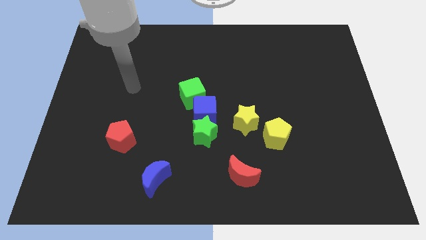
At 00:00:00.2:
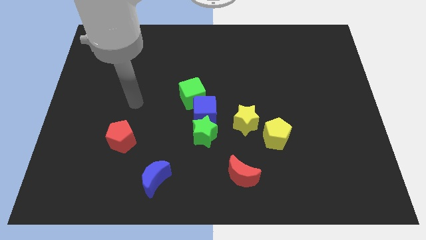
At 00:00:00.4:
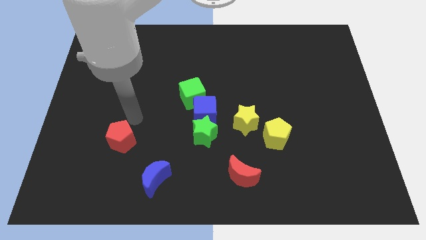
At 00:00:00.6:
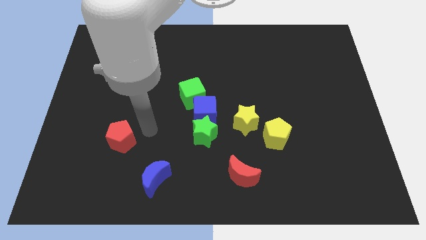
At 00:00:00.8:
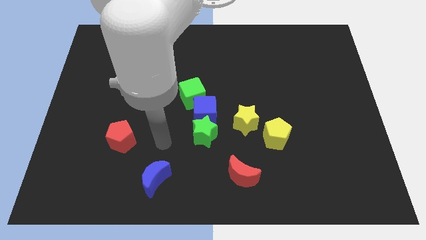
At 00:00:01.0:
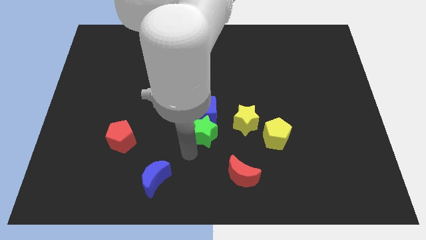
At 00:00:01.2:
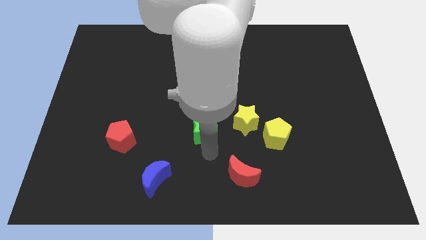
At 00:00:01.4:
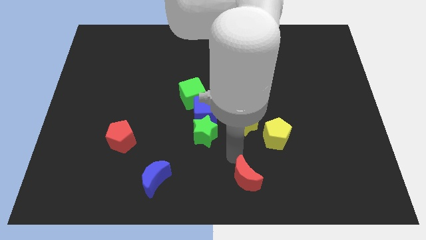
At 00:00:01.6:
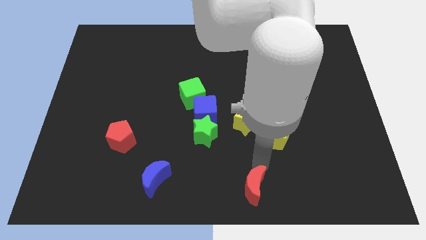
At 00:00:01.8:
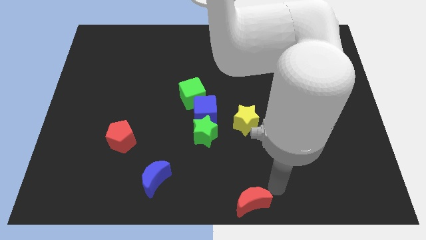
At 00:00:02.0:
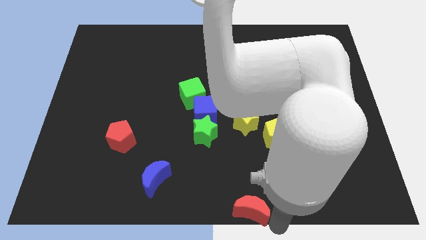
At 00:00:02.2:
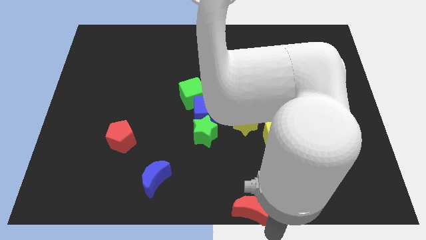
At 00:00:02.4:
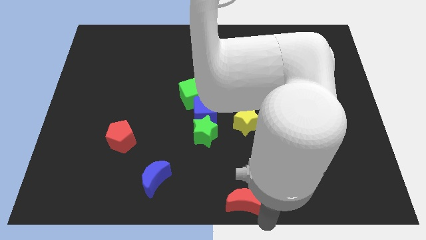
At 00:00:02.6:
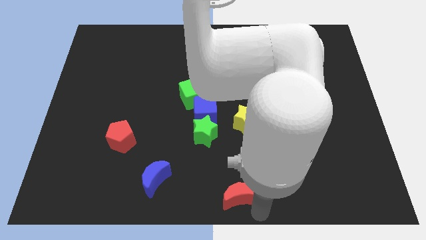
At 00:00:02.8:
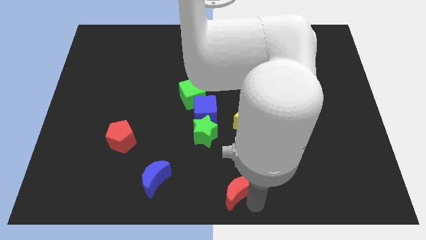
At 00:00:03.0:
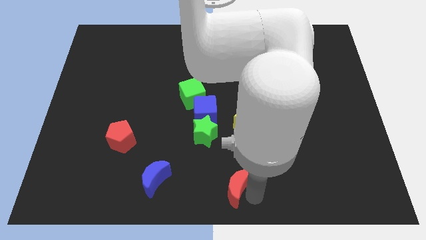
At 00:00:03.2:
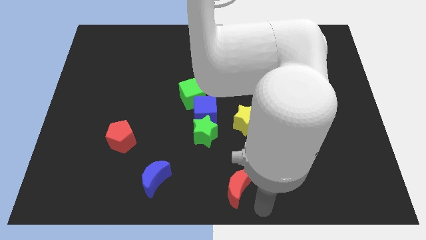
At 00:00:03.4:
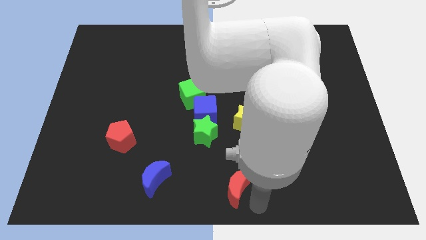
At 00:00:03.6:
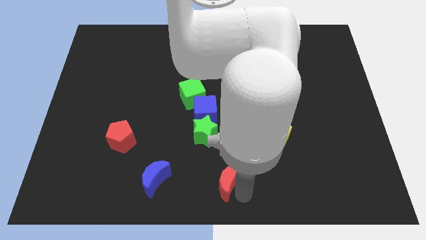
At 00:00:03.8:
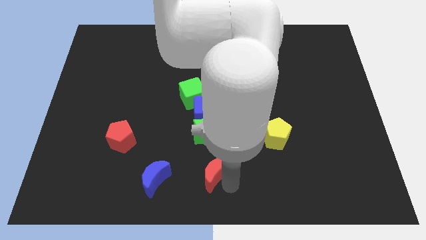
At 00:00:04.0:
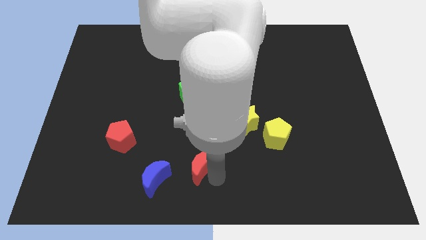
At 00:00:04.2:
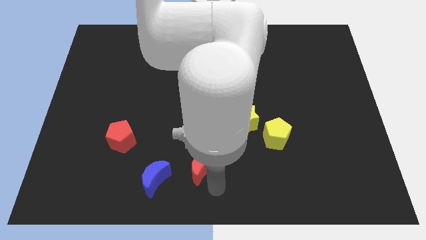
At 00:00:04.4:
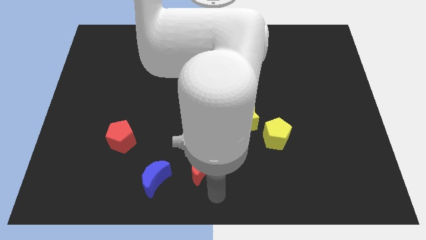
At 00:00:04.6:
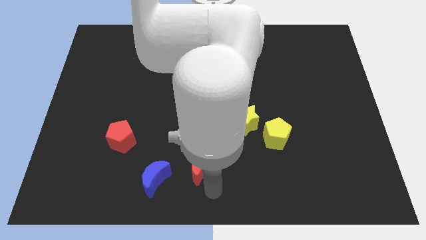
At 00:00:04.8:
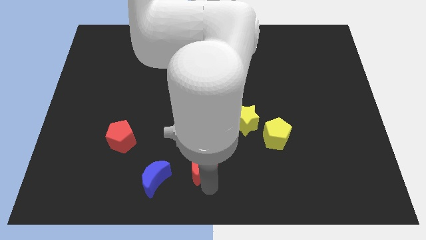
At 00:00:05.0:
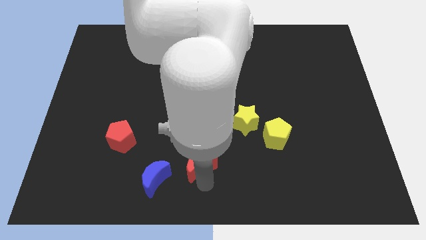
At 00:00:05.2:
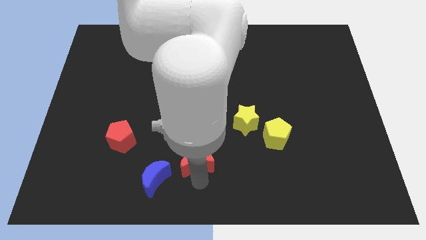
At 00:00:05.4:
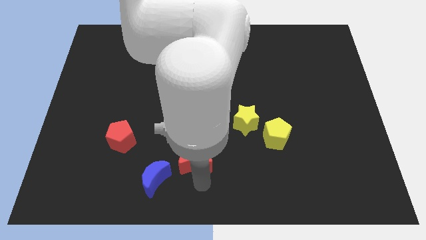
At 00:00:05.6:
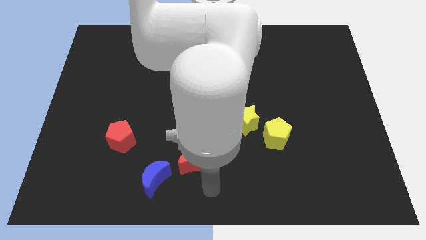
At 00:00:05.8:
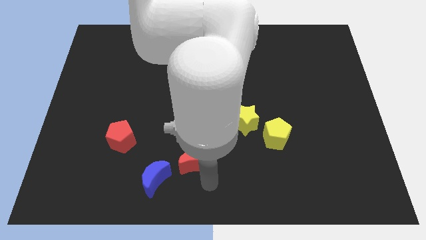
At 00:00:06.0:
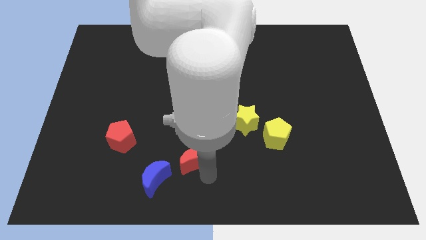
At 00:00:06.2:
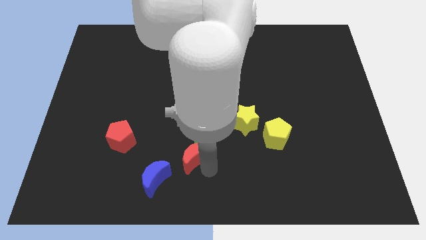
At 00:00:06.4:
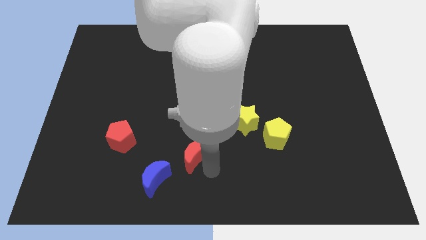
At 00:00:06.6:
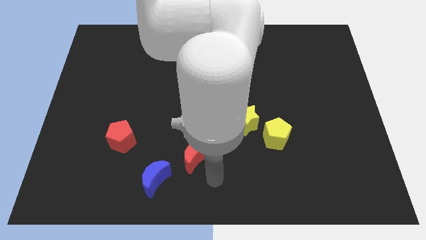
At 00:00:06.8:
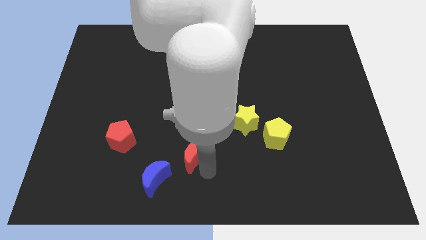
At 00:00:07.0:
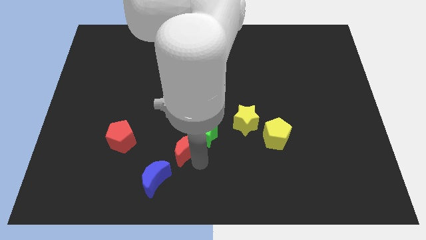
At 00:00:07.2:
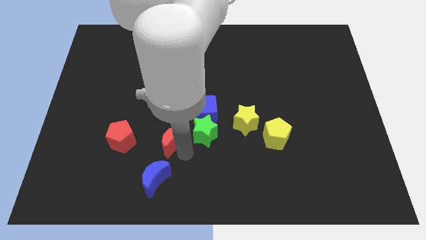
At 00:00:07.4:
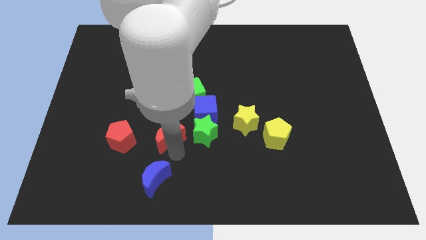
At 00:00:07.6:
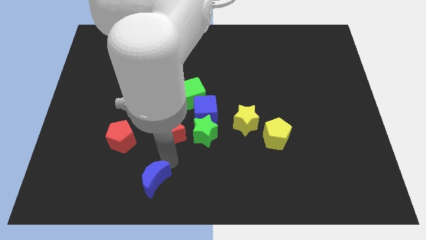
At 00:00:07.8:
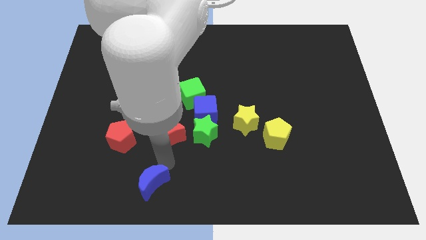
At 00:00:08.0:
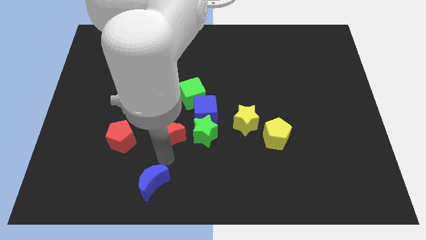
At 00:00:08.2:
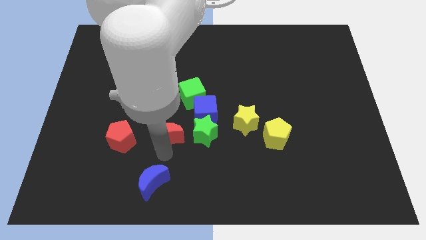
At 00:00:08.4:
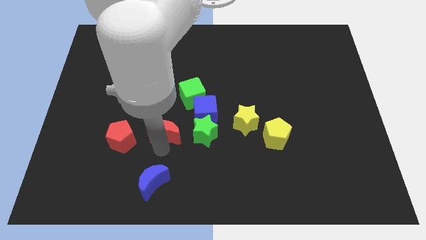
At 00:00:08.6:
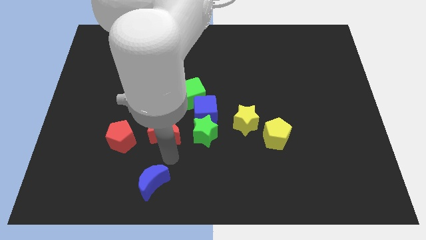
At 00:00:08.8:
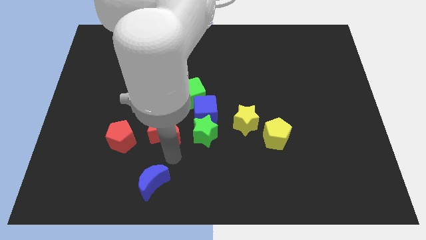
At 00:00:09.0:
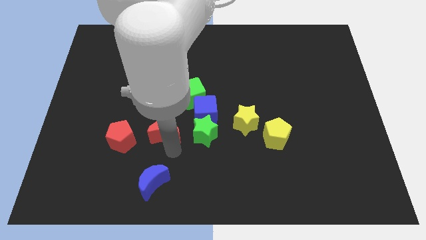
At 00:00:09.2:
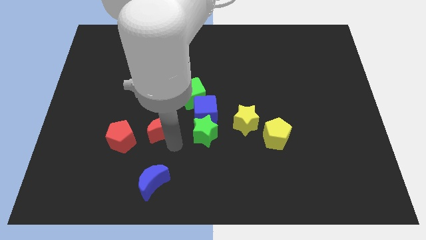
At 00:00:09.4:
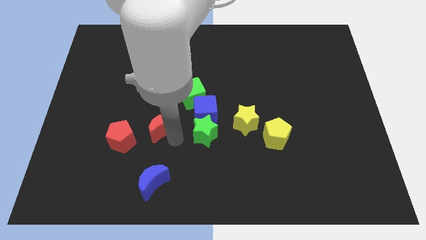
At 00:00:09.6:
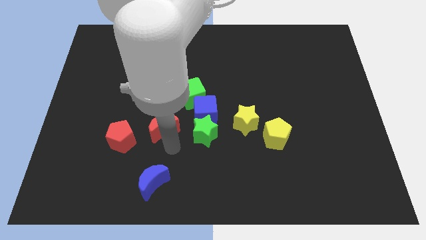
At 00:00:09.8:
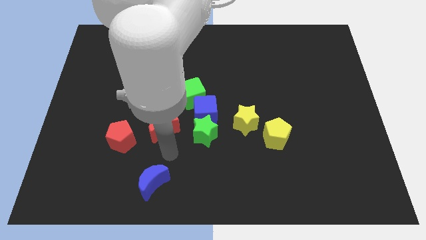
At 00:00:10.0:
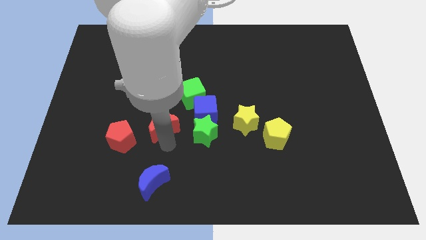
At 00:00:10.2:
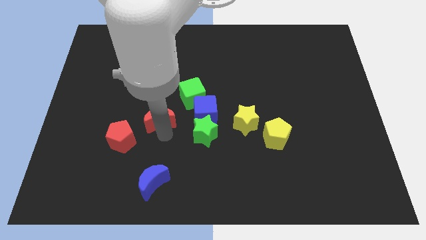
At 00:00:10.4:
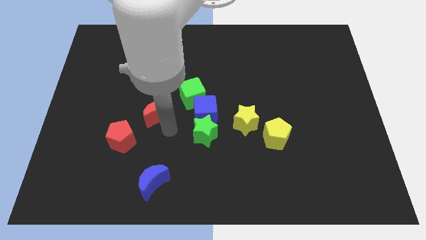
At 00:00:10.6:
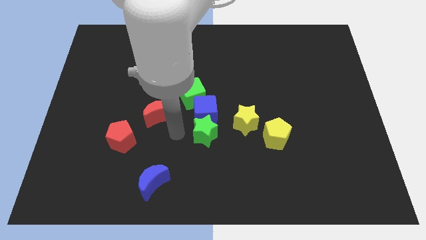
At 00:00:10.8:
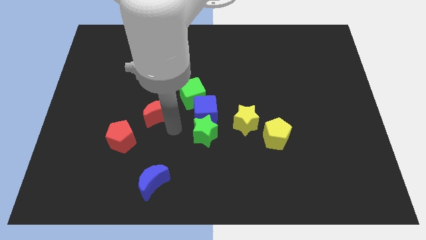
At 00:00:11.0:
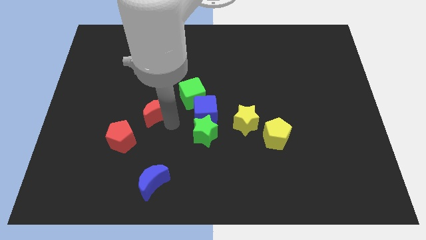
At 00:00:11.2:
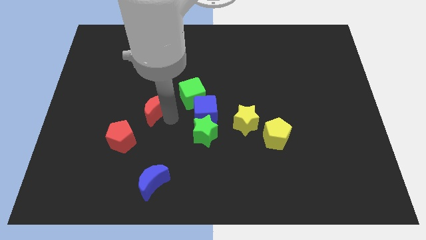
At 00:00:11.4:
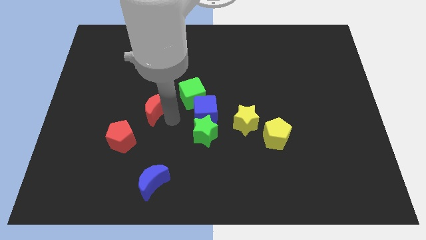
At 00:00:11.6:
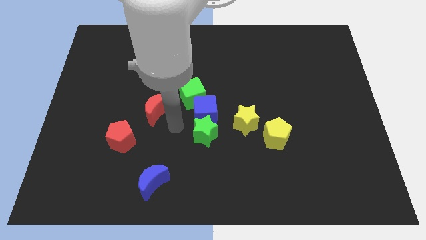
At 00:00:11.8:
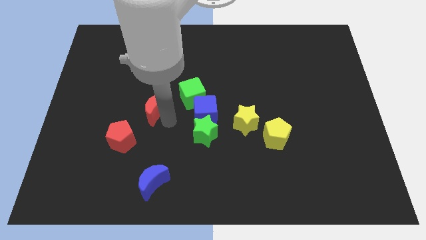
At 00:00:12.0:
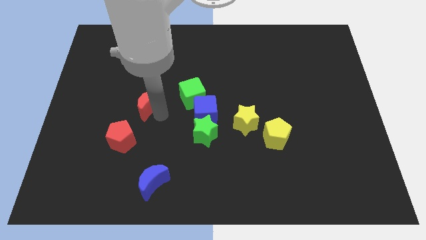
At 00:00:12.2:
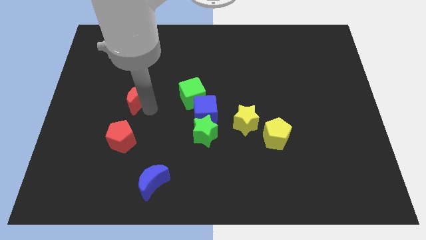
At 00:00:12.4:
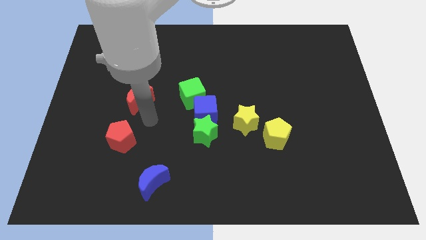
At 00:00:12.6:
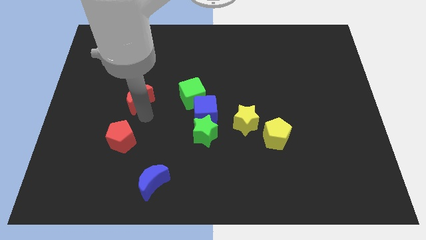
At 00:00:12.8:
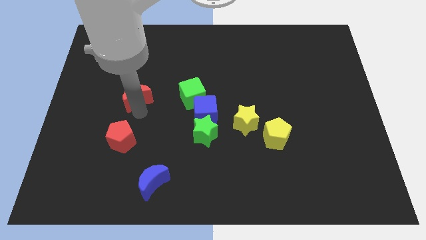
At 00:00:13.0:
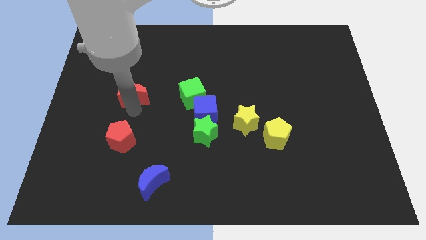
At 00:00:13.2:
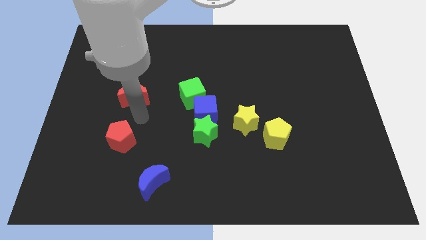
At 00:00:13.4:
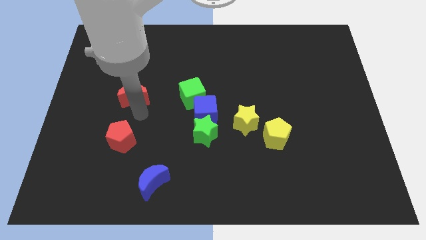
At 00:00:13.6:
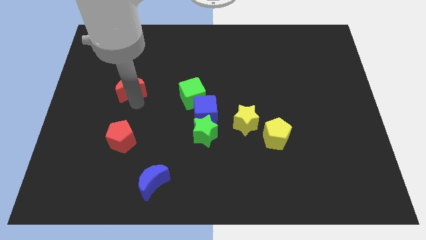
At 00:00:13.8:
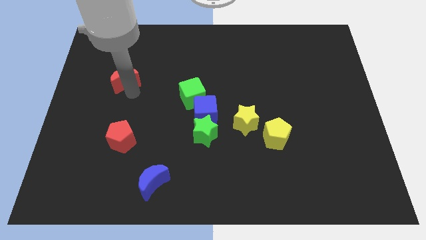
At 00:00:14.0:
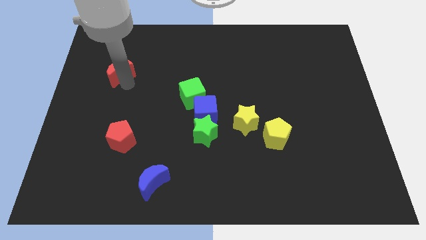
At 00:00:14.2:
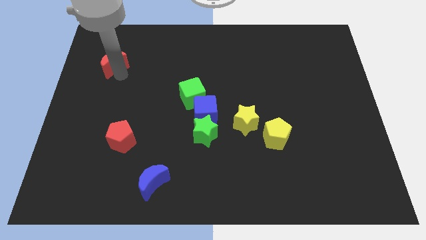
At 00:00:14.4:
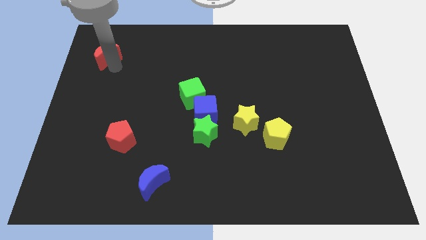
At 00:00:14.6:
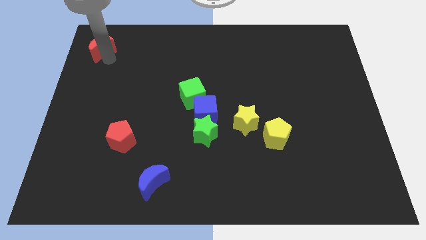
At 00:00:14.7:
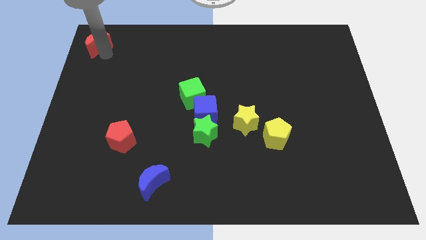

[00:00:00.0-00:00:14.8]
slide the red moon to the upper left corner

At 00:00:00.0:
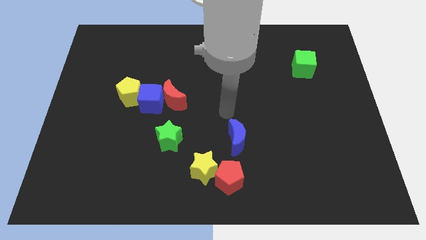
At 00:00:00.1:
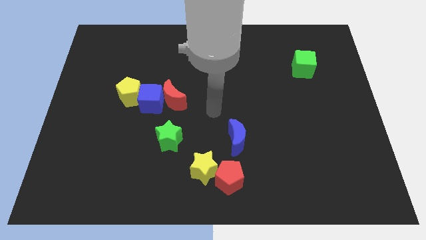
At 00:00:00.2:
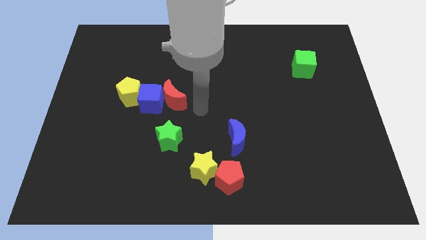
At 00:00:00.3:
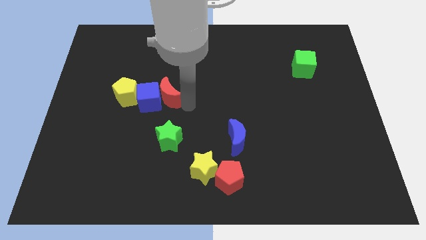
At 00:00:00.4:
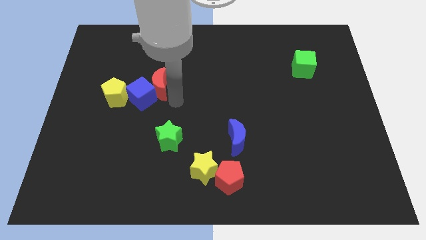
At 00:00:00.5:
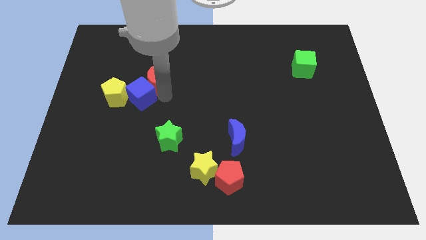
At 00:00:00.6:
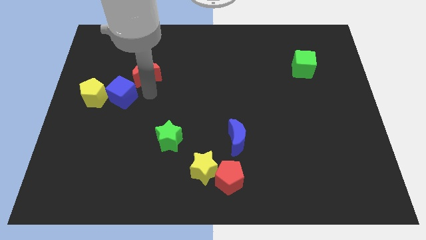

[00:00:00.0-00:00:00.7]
put the yellow pentagon to the left side
